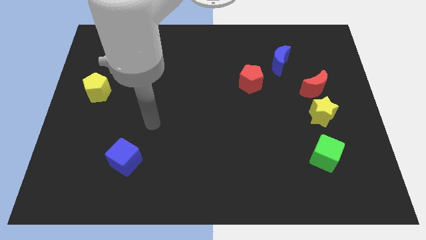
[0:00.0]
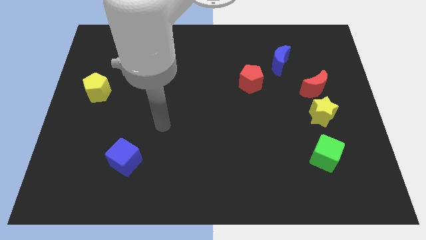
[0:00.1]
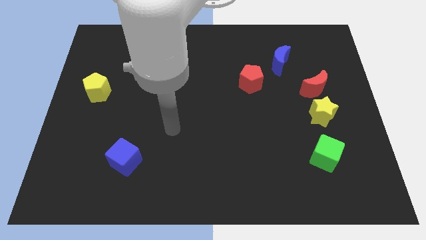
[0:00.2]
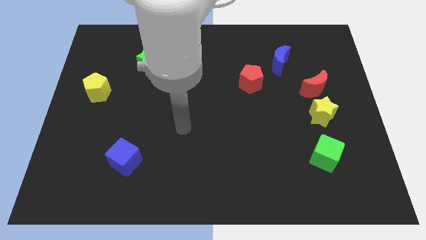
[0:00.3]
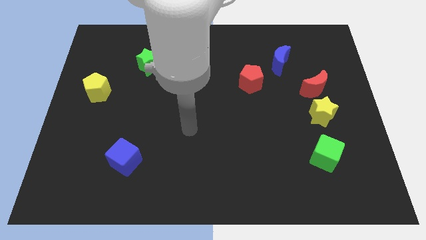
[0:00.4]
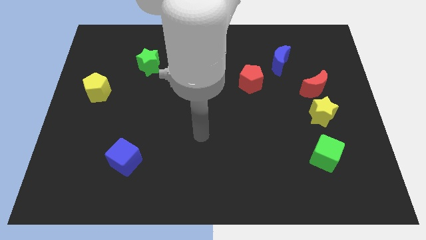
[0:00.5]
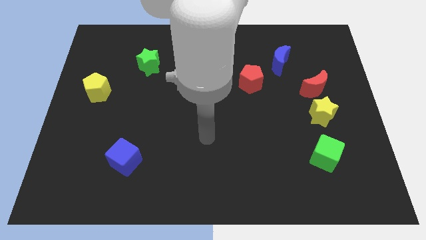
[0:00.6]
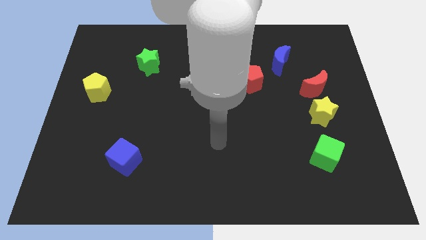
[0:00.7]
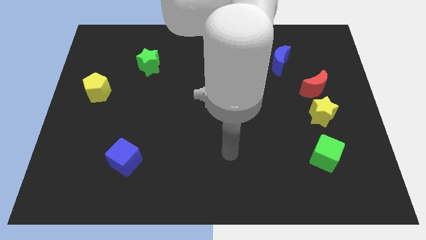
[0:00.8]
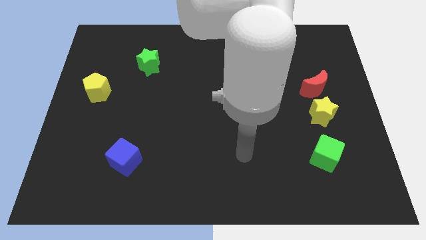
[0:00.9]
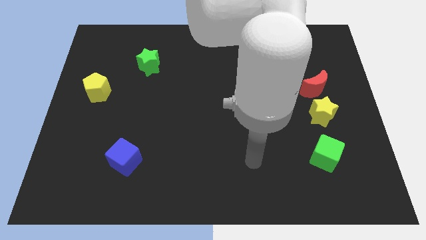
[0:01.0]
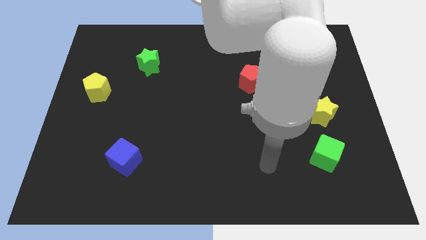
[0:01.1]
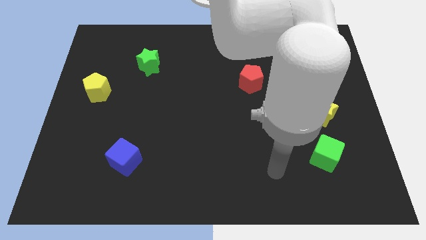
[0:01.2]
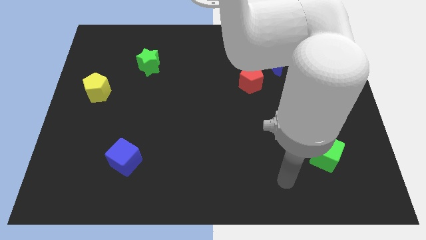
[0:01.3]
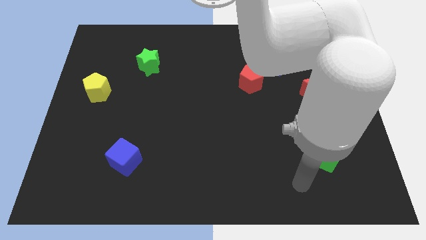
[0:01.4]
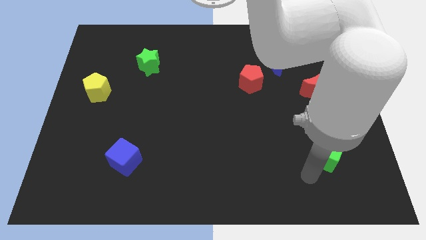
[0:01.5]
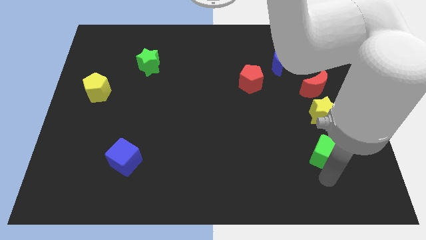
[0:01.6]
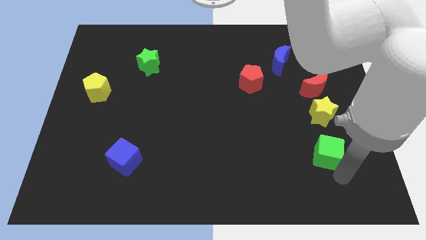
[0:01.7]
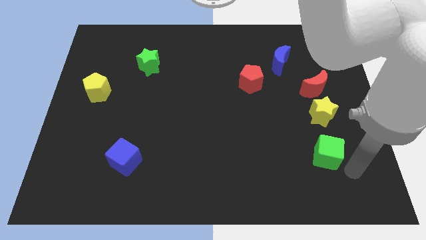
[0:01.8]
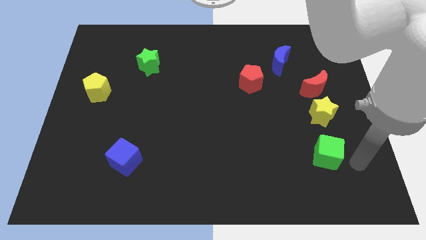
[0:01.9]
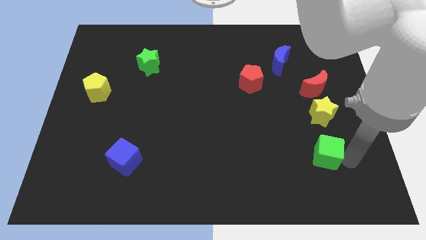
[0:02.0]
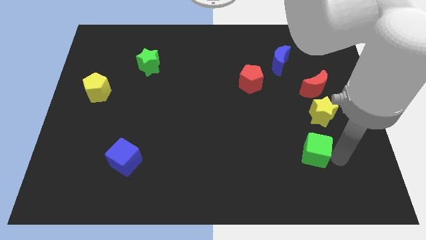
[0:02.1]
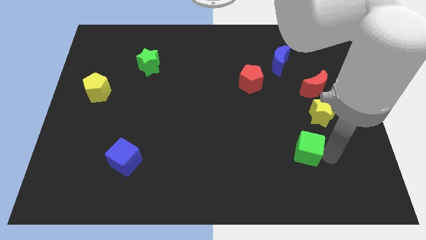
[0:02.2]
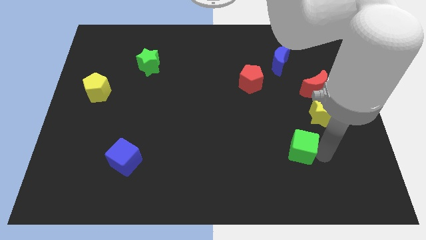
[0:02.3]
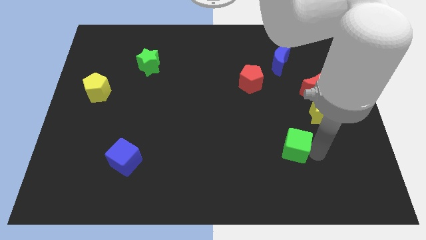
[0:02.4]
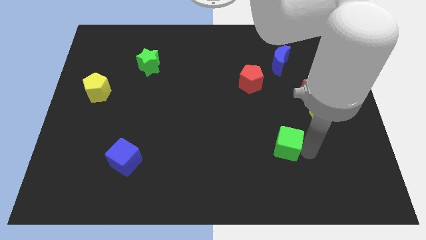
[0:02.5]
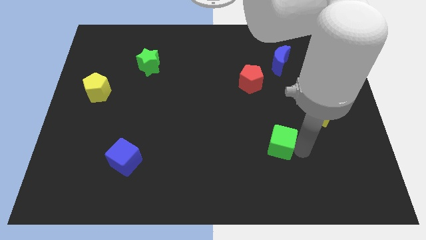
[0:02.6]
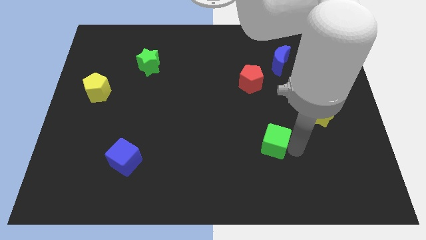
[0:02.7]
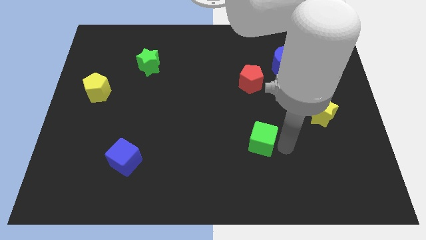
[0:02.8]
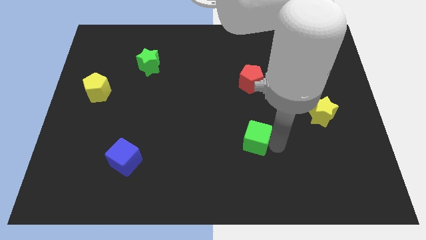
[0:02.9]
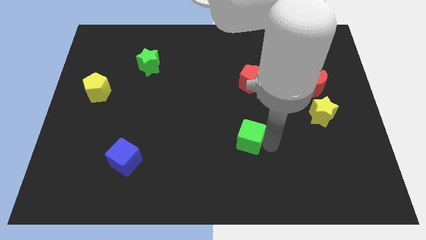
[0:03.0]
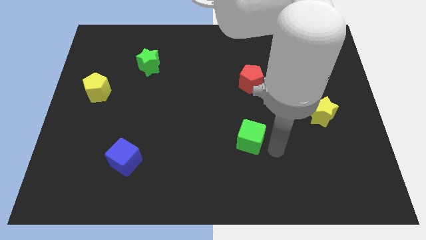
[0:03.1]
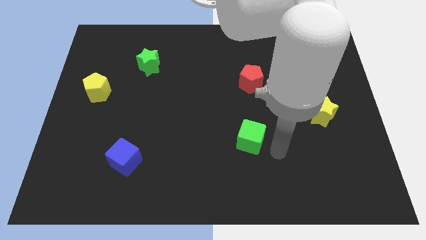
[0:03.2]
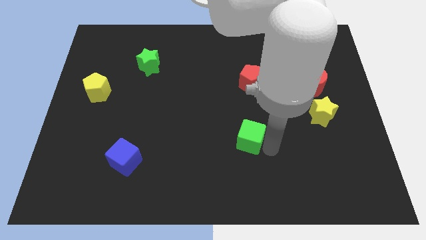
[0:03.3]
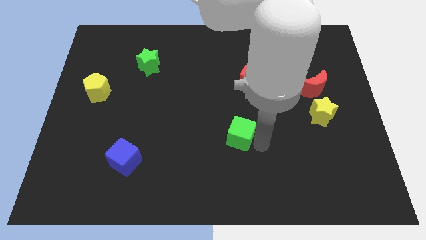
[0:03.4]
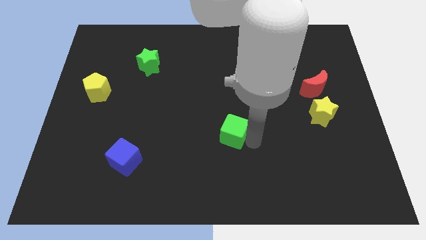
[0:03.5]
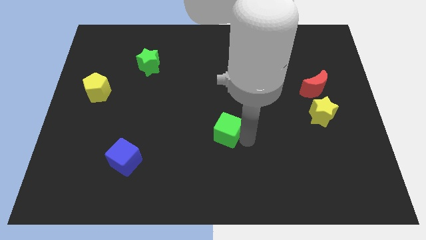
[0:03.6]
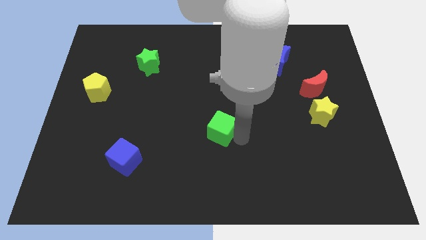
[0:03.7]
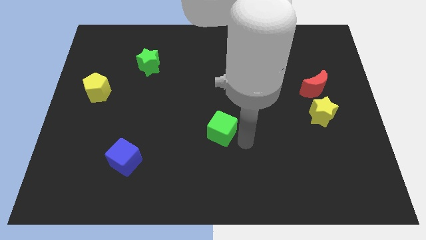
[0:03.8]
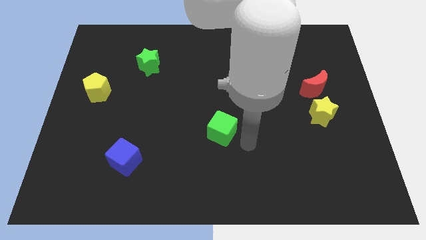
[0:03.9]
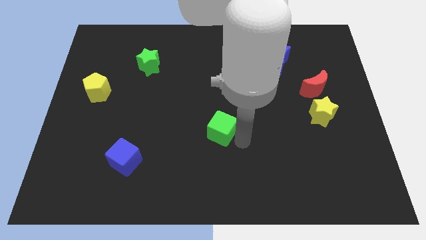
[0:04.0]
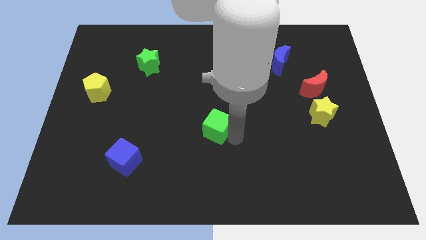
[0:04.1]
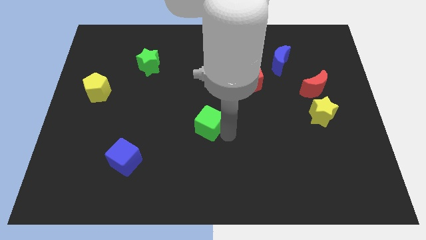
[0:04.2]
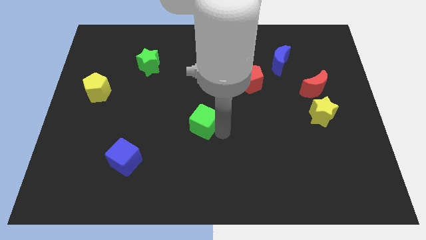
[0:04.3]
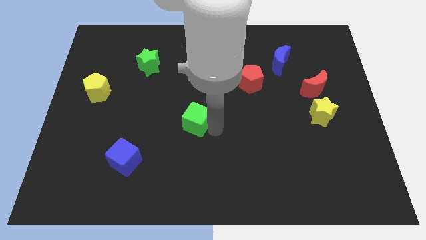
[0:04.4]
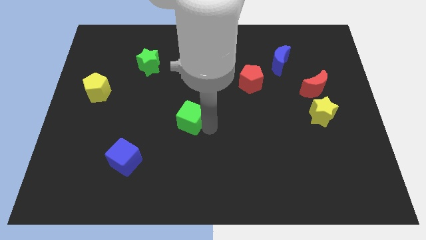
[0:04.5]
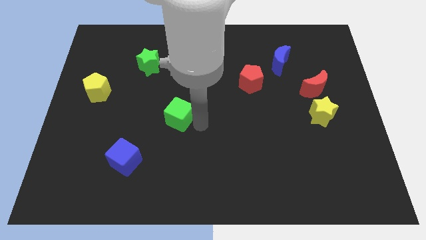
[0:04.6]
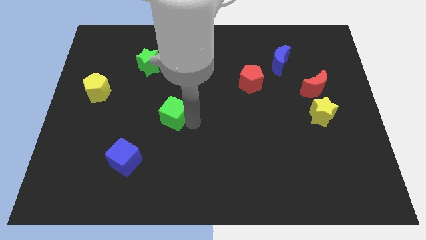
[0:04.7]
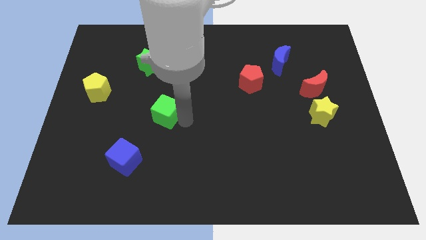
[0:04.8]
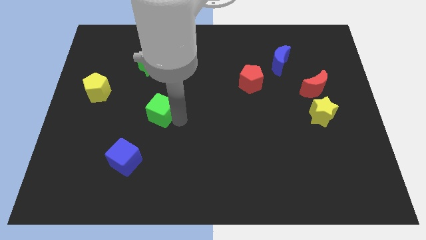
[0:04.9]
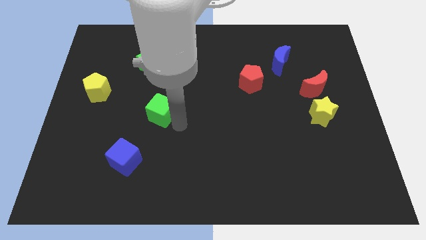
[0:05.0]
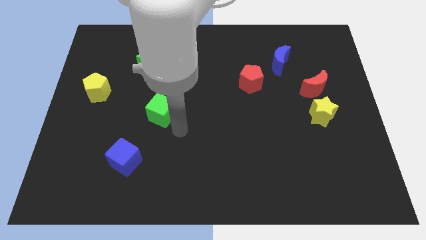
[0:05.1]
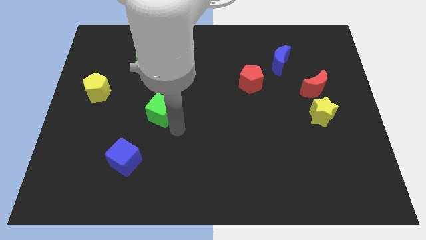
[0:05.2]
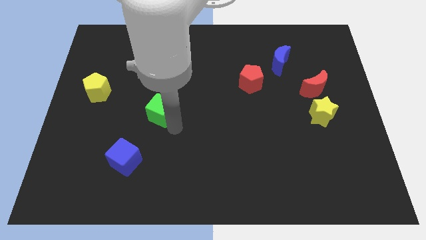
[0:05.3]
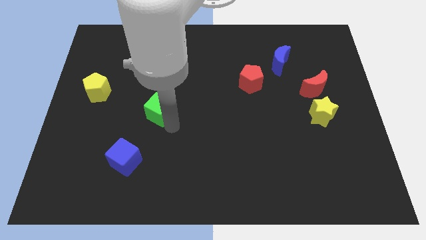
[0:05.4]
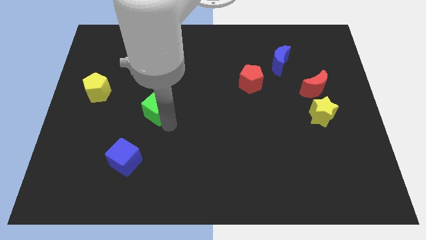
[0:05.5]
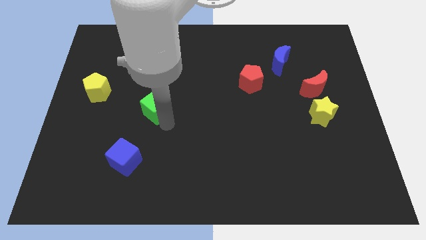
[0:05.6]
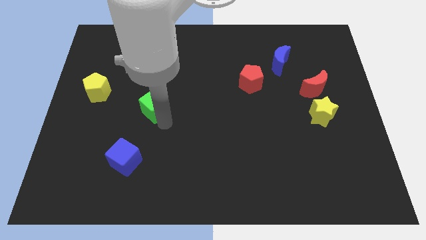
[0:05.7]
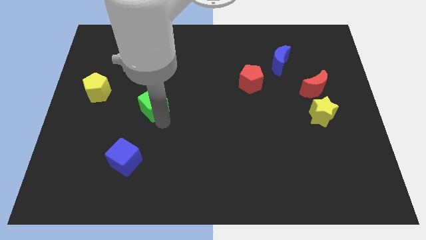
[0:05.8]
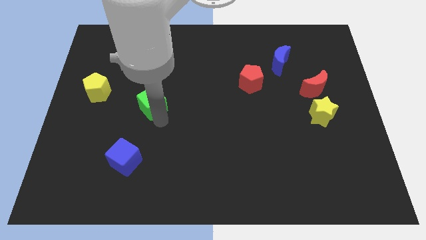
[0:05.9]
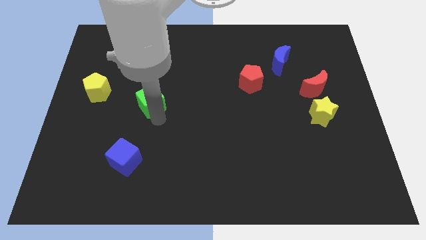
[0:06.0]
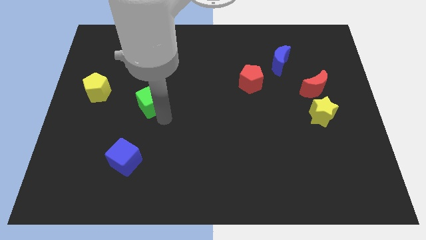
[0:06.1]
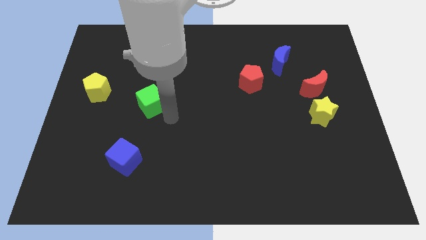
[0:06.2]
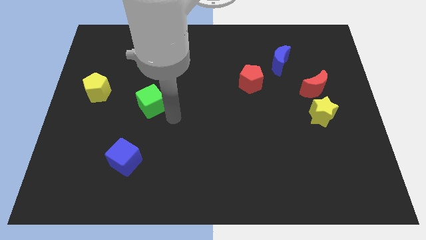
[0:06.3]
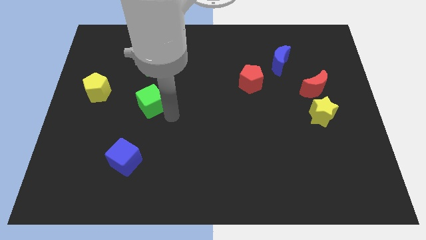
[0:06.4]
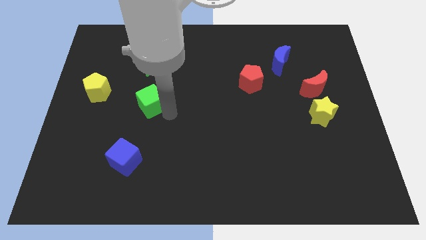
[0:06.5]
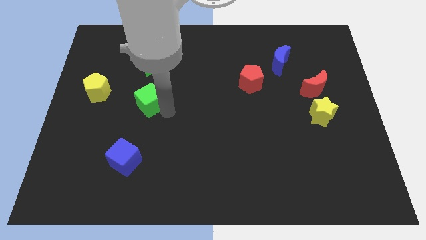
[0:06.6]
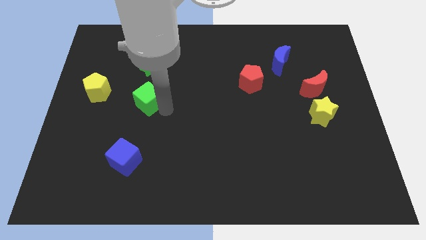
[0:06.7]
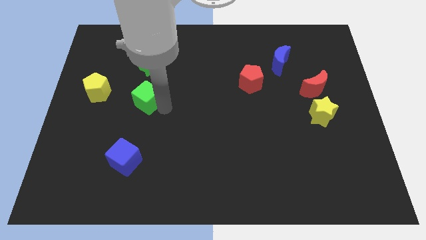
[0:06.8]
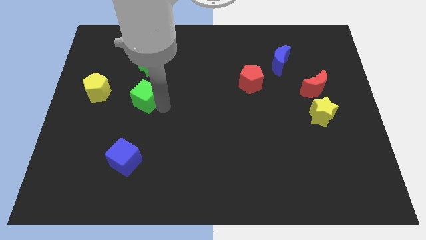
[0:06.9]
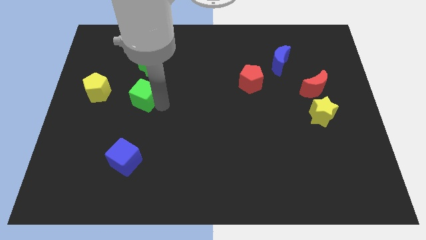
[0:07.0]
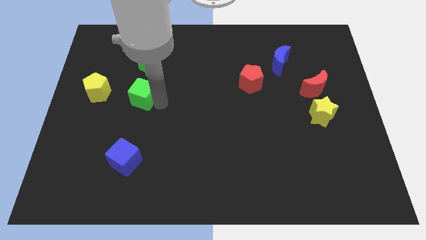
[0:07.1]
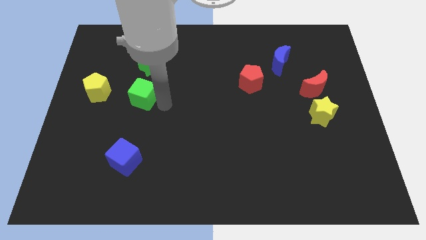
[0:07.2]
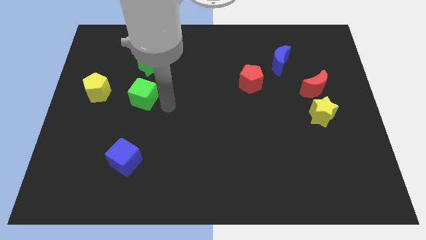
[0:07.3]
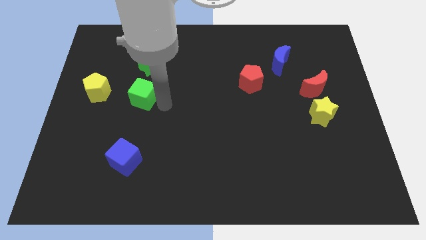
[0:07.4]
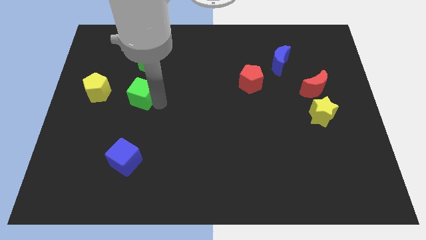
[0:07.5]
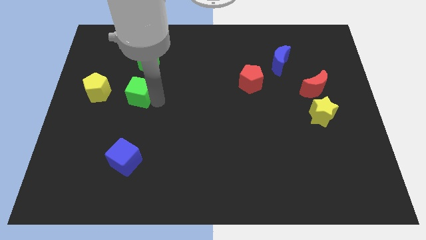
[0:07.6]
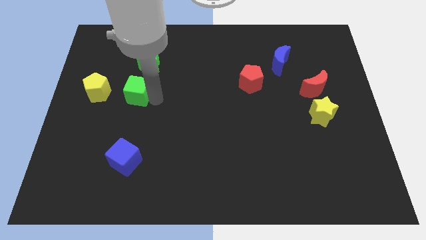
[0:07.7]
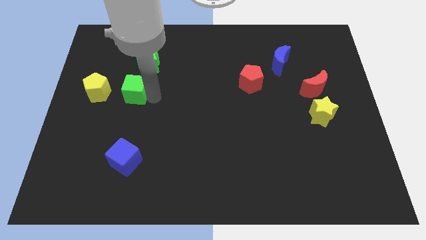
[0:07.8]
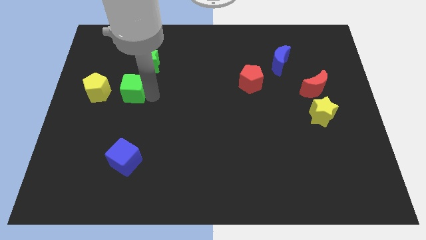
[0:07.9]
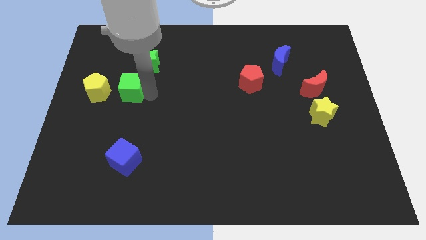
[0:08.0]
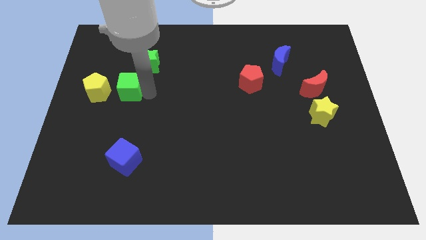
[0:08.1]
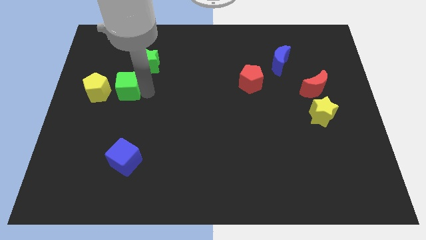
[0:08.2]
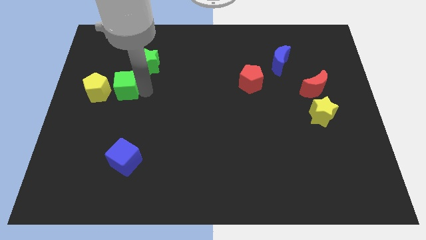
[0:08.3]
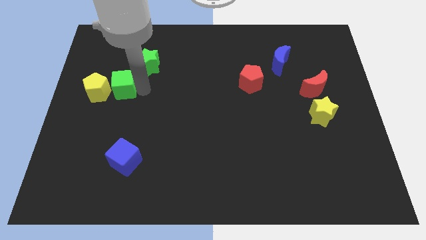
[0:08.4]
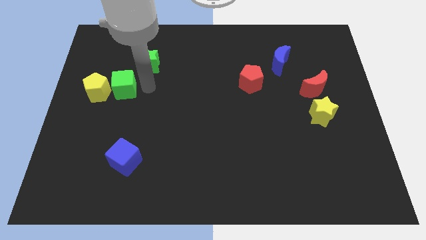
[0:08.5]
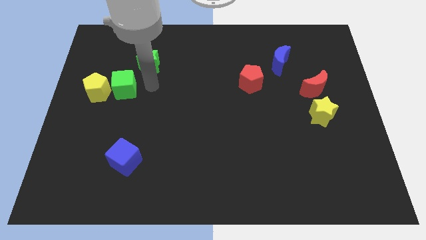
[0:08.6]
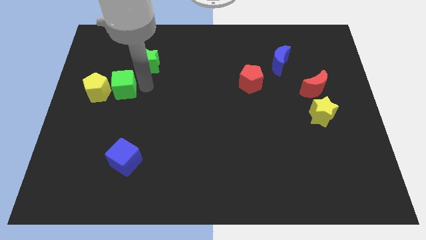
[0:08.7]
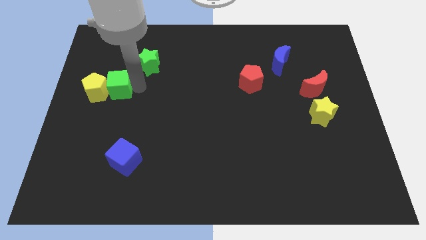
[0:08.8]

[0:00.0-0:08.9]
put the green cube towards the yellow pentagon
